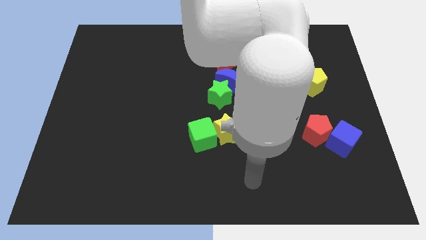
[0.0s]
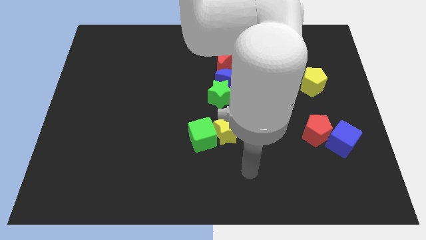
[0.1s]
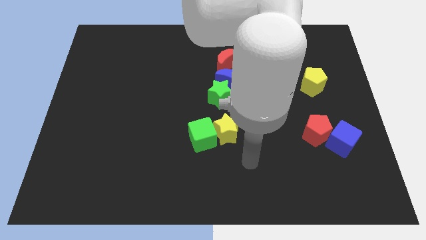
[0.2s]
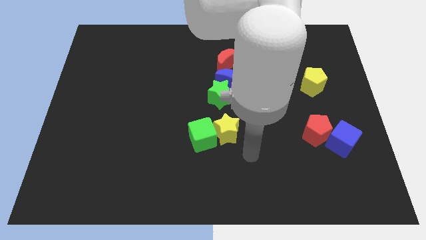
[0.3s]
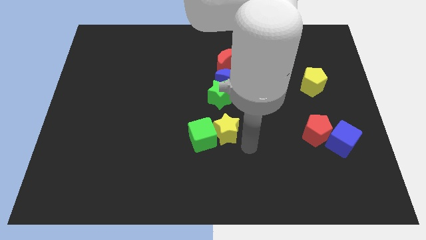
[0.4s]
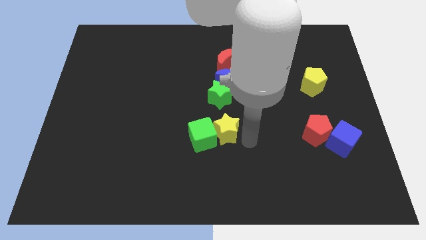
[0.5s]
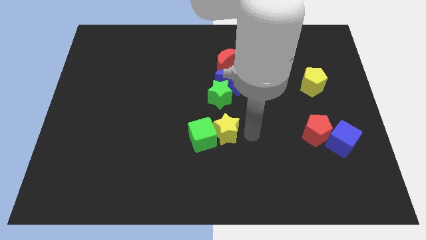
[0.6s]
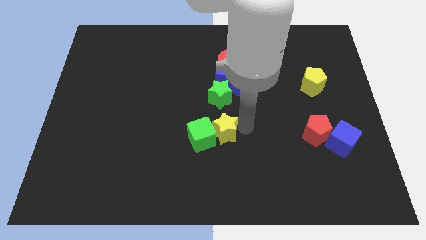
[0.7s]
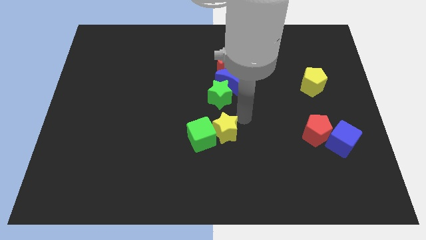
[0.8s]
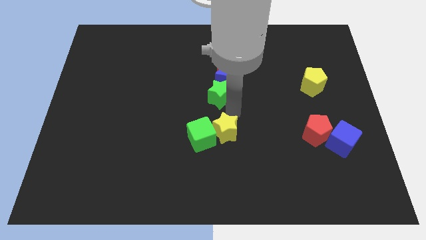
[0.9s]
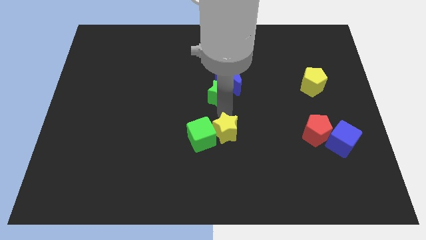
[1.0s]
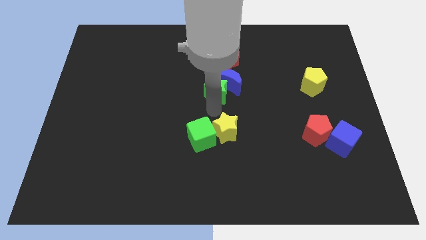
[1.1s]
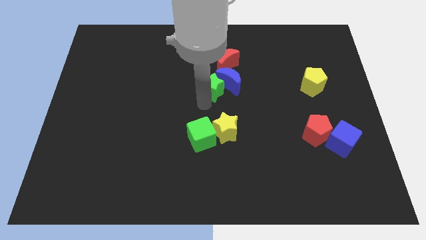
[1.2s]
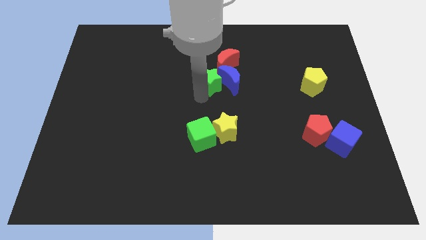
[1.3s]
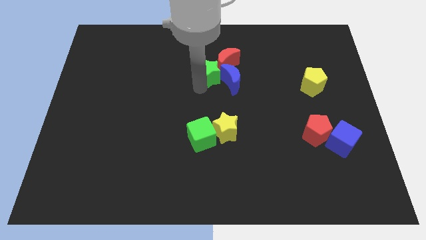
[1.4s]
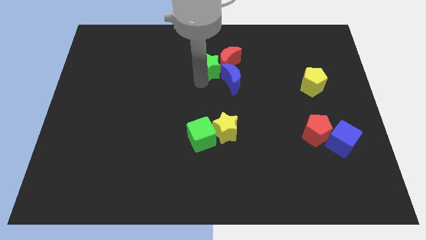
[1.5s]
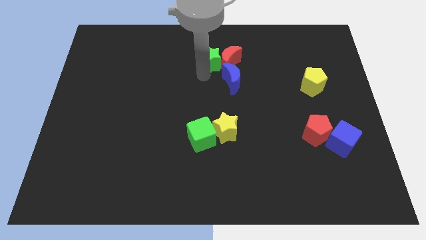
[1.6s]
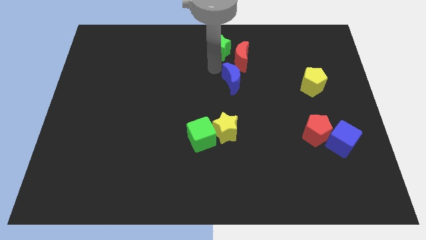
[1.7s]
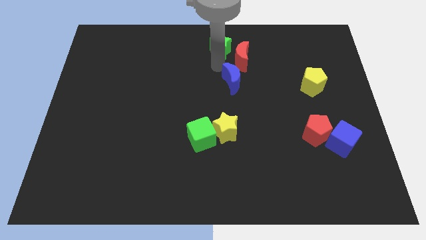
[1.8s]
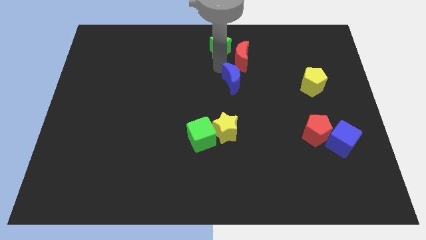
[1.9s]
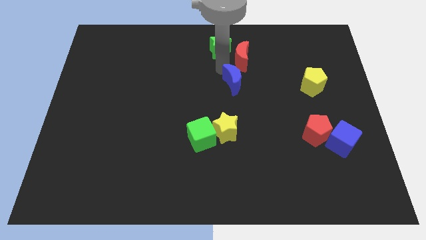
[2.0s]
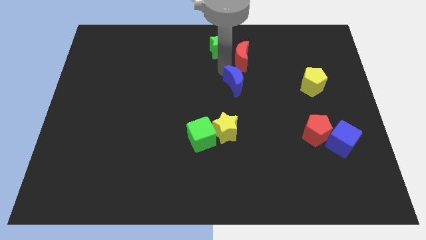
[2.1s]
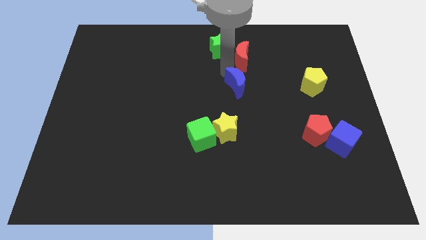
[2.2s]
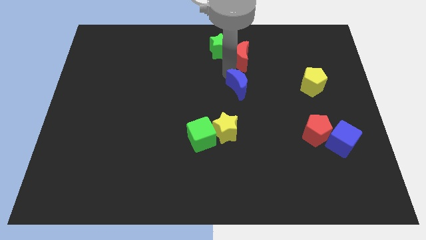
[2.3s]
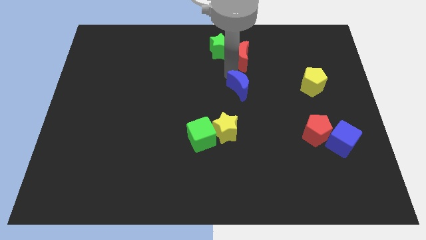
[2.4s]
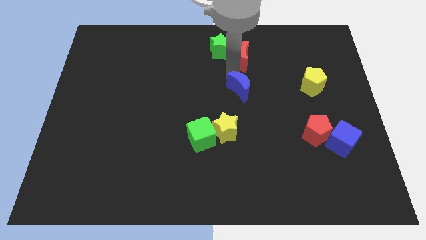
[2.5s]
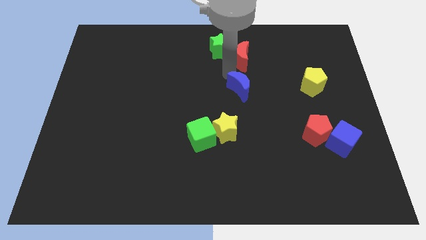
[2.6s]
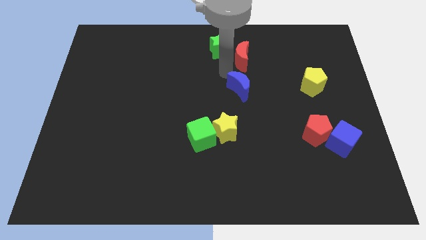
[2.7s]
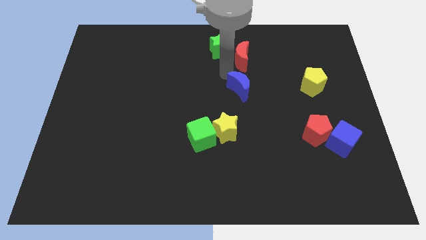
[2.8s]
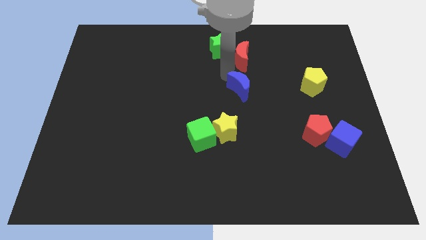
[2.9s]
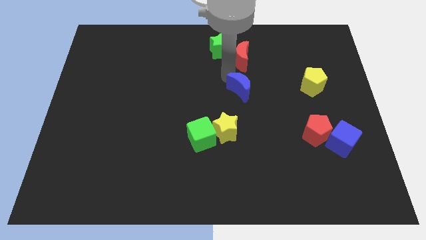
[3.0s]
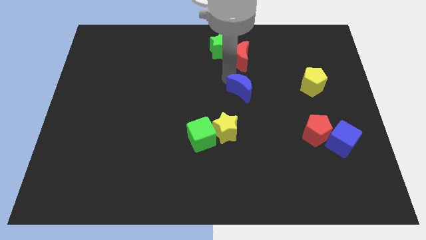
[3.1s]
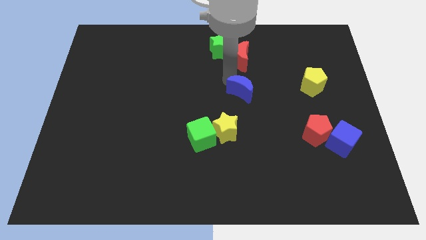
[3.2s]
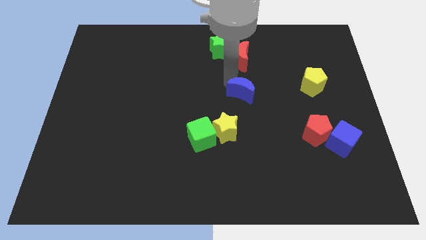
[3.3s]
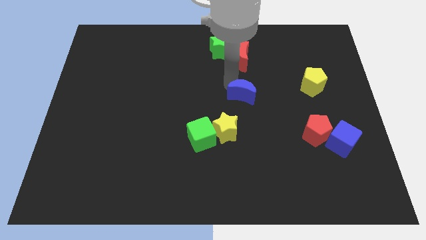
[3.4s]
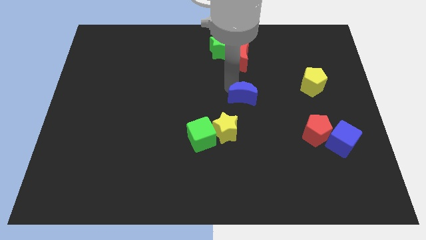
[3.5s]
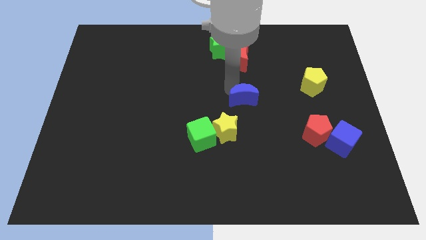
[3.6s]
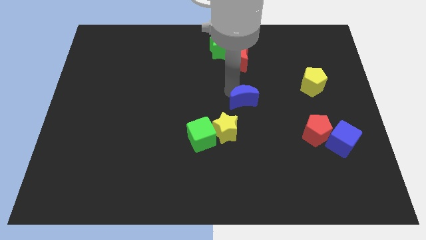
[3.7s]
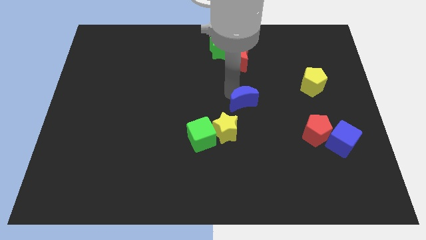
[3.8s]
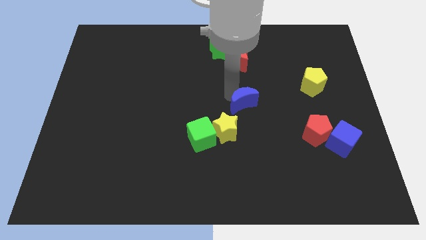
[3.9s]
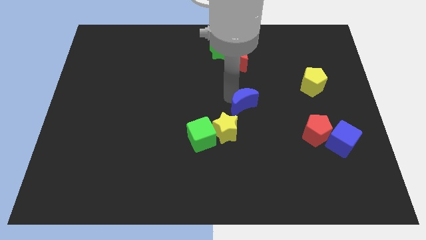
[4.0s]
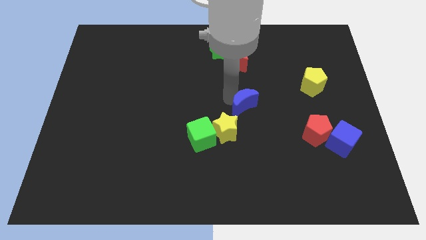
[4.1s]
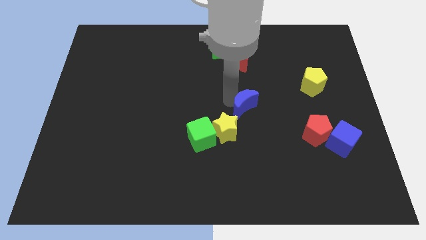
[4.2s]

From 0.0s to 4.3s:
slide the blue moon a little bit downwards and to the right

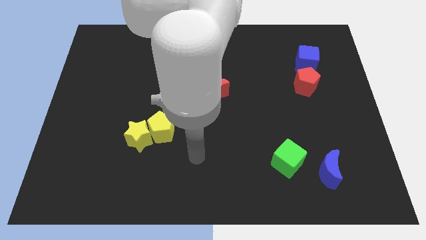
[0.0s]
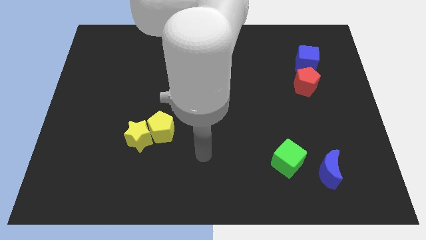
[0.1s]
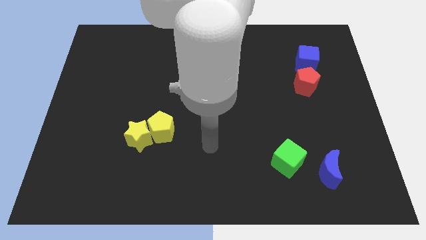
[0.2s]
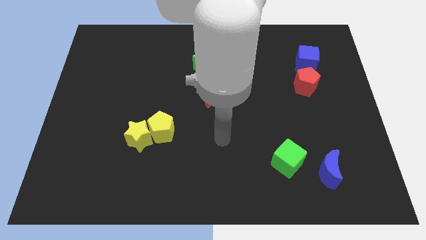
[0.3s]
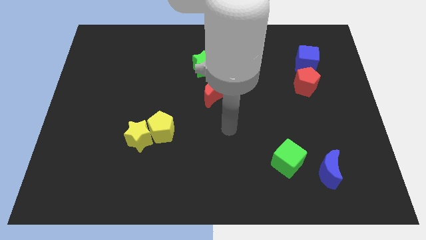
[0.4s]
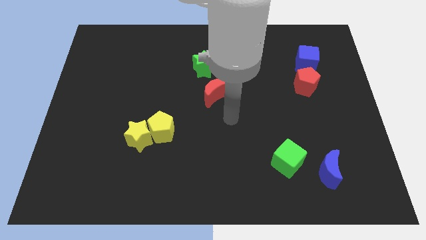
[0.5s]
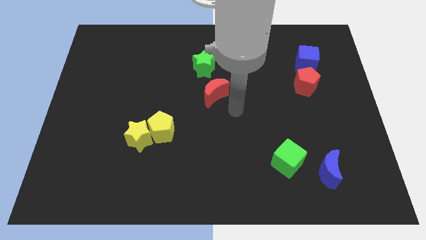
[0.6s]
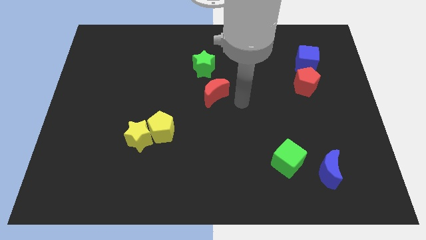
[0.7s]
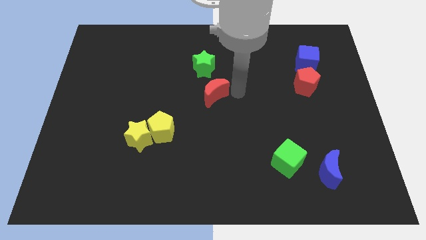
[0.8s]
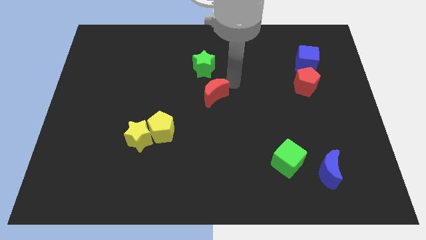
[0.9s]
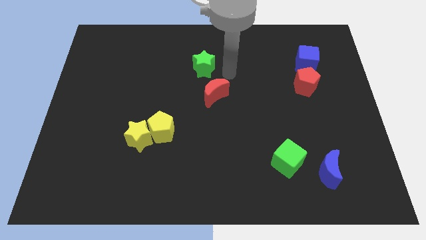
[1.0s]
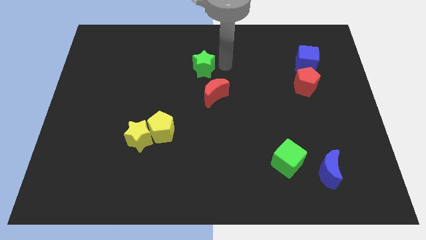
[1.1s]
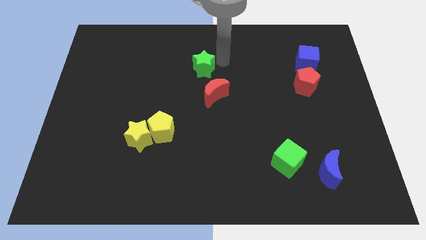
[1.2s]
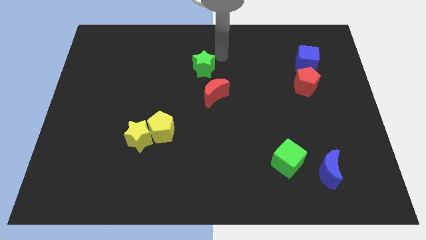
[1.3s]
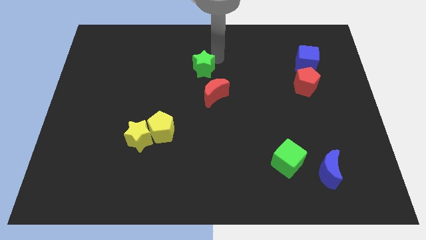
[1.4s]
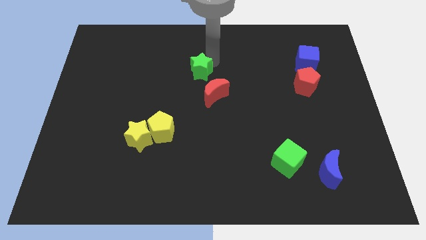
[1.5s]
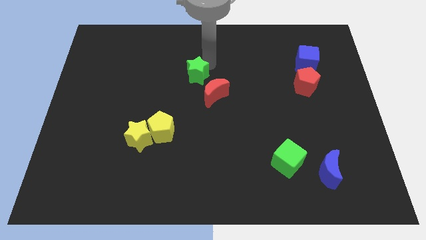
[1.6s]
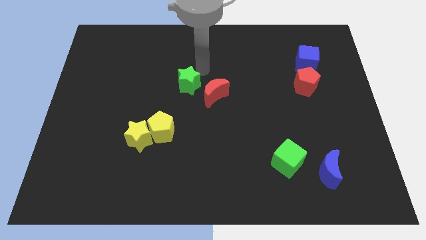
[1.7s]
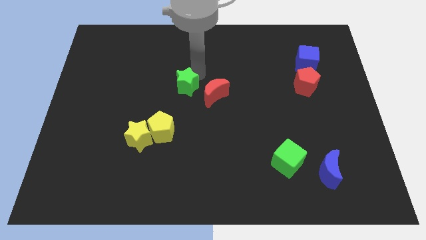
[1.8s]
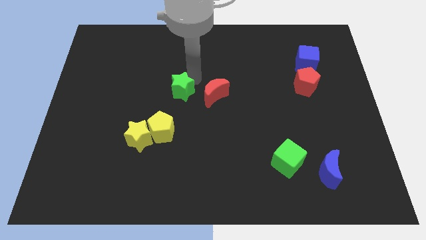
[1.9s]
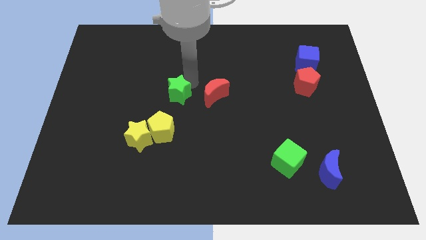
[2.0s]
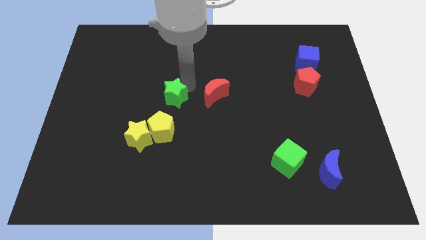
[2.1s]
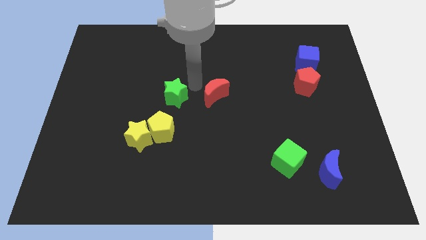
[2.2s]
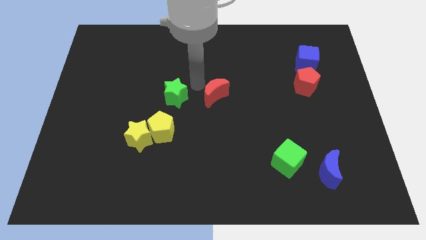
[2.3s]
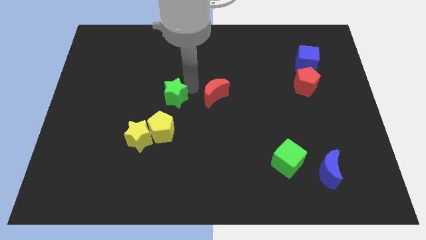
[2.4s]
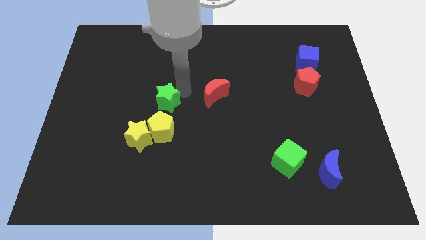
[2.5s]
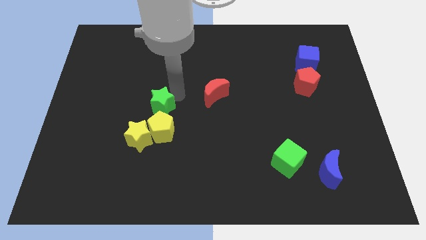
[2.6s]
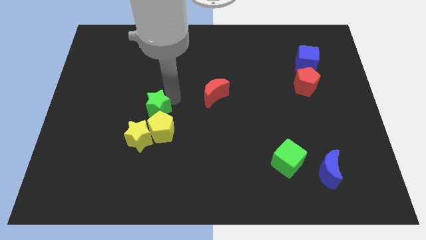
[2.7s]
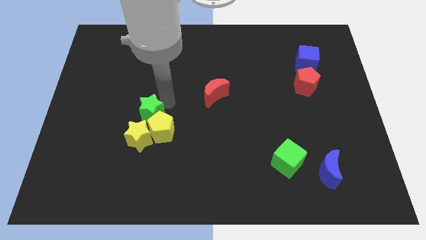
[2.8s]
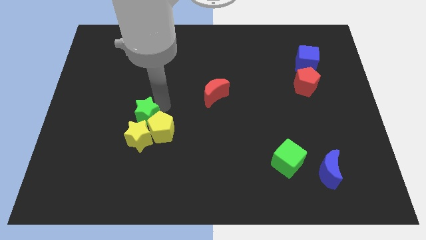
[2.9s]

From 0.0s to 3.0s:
slide the green star downwards and then to the left

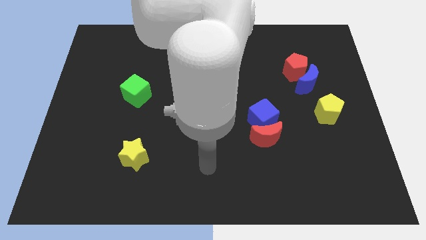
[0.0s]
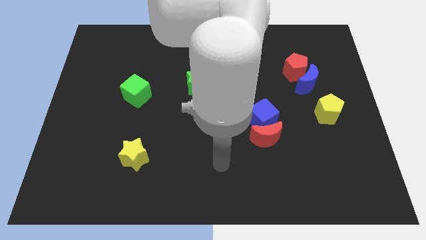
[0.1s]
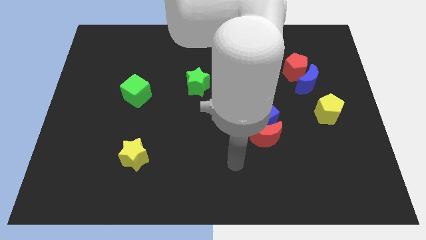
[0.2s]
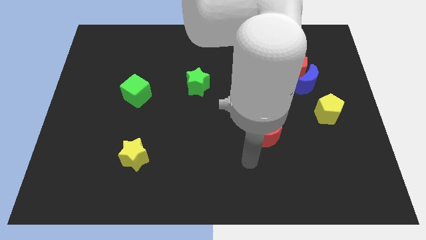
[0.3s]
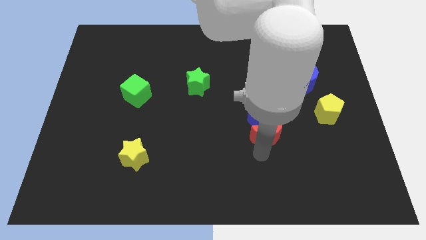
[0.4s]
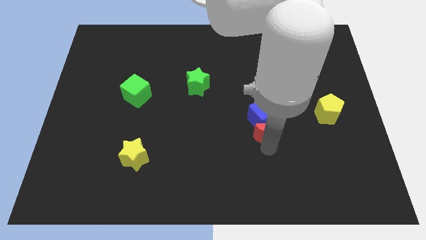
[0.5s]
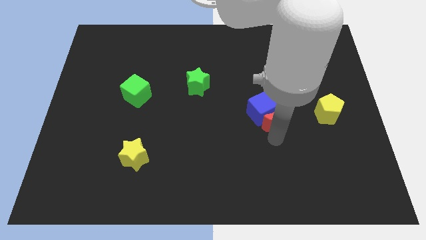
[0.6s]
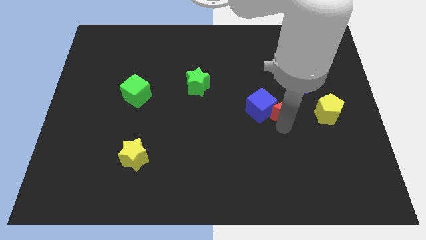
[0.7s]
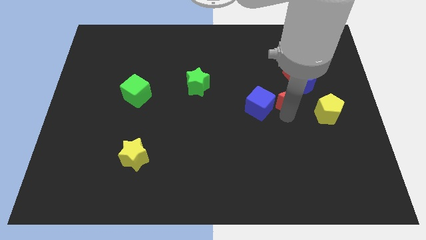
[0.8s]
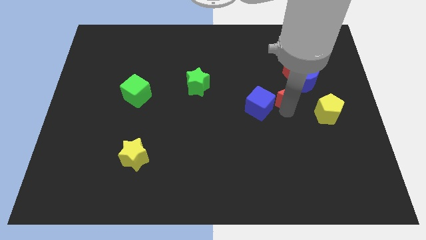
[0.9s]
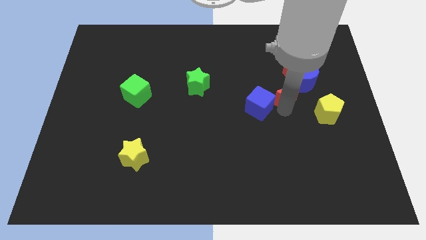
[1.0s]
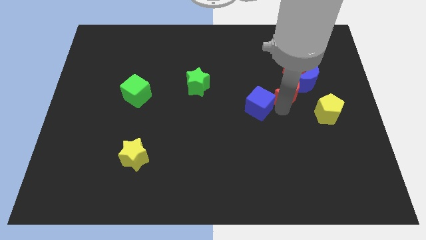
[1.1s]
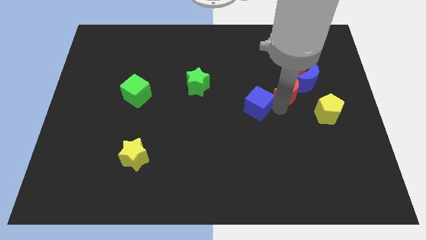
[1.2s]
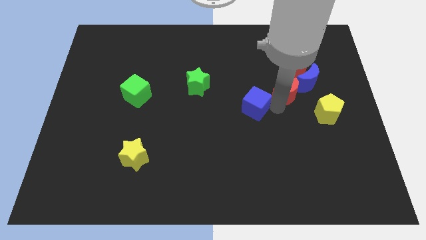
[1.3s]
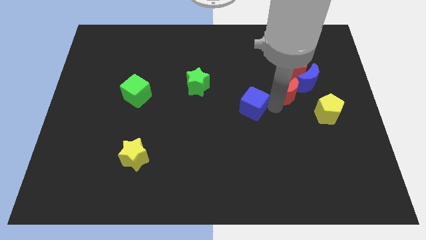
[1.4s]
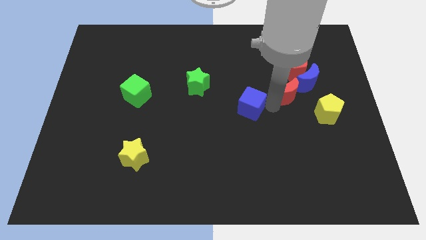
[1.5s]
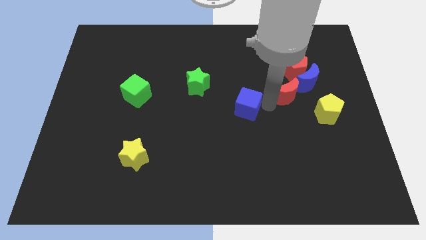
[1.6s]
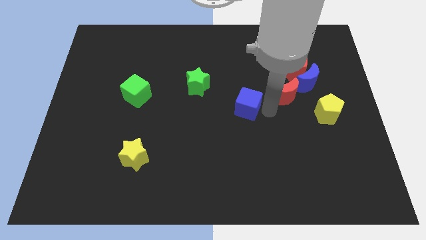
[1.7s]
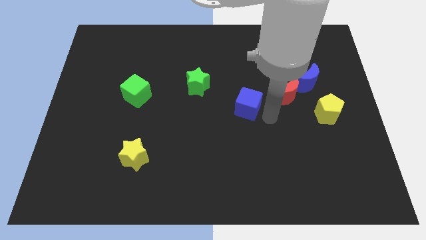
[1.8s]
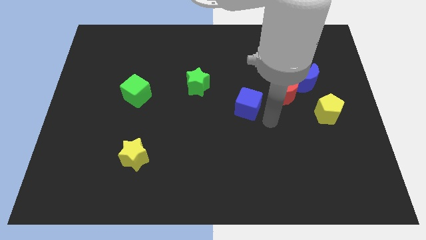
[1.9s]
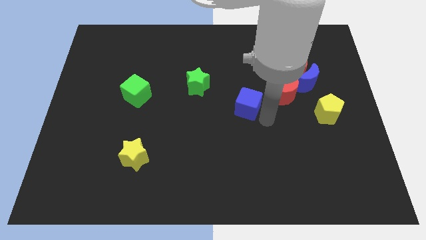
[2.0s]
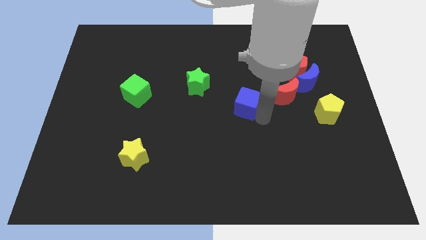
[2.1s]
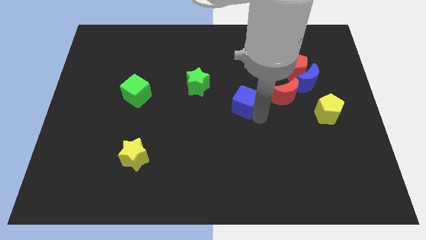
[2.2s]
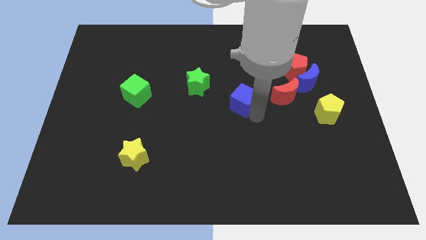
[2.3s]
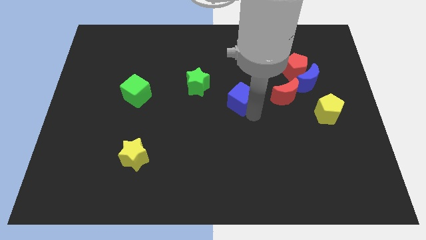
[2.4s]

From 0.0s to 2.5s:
slightly move the blue cube up and to the left diagonally
